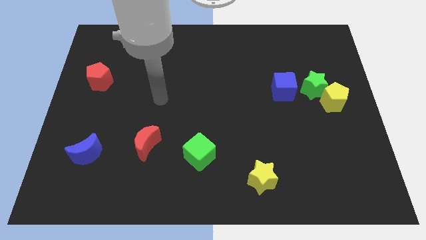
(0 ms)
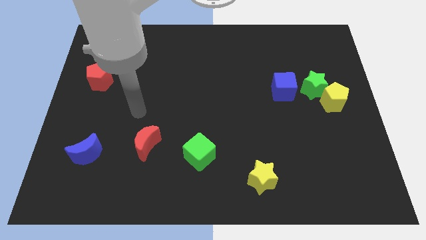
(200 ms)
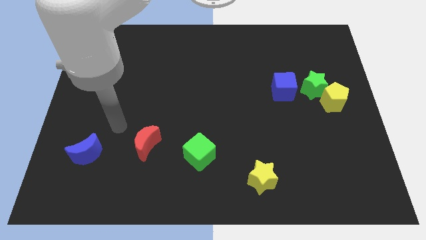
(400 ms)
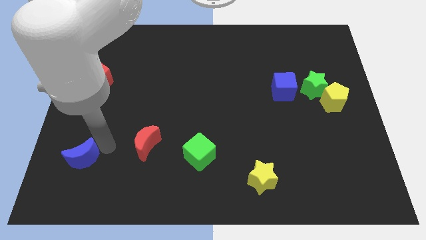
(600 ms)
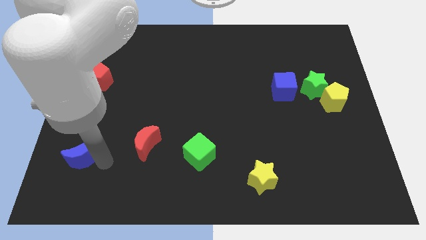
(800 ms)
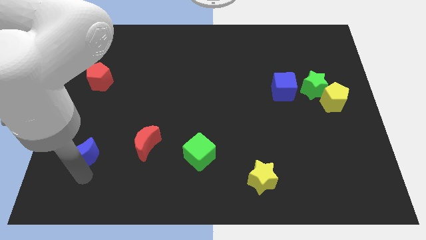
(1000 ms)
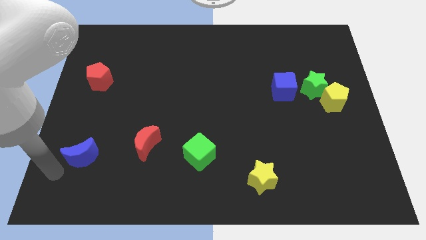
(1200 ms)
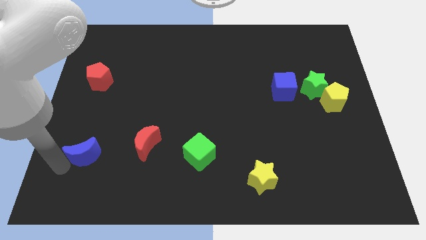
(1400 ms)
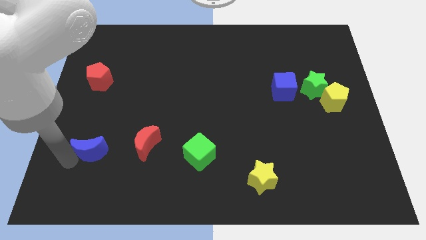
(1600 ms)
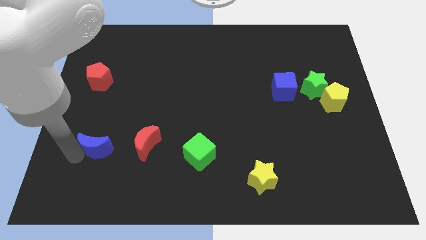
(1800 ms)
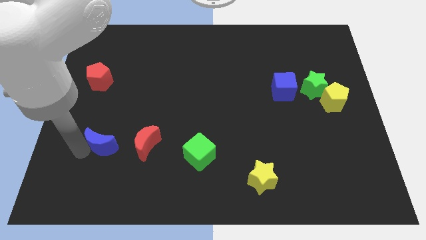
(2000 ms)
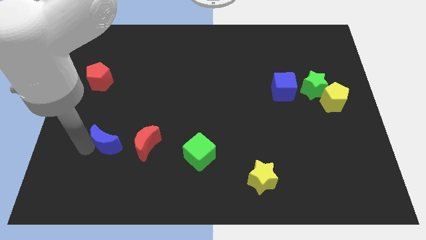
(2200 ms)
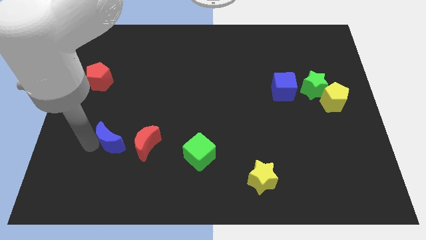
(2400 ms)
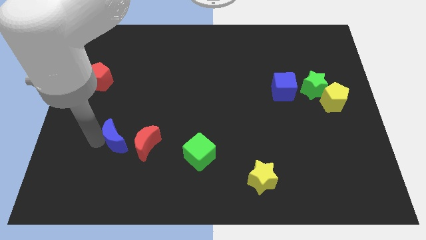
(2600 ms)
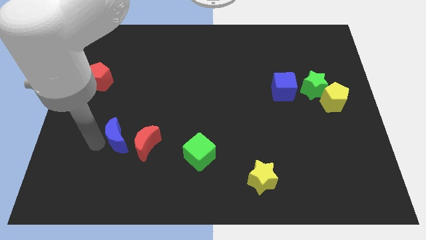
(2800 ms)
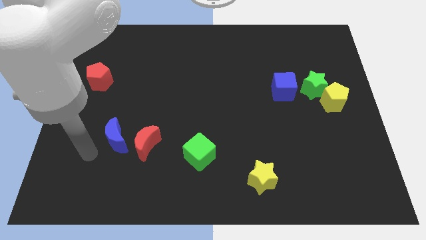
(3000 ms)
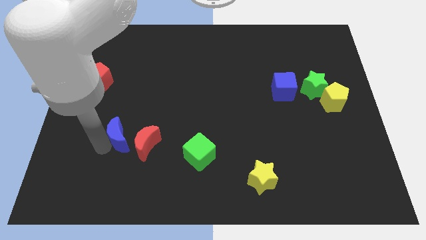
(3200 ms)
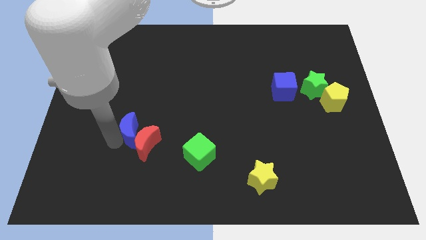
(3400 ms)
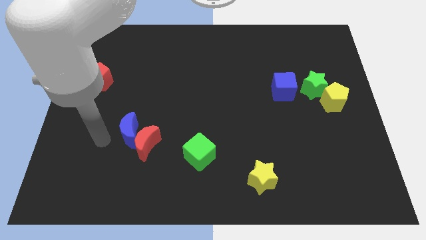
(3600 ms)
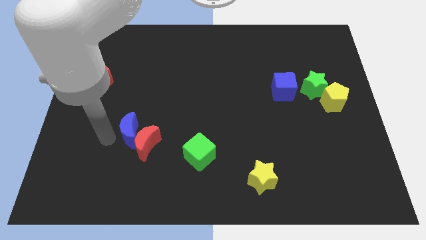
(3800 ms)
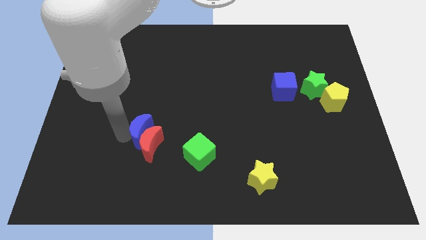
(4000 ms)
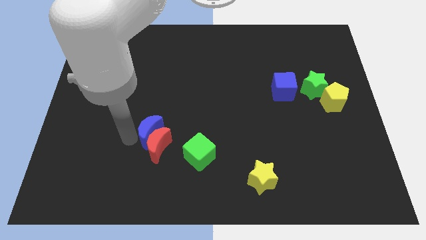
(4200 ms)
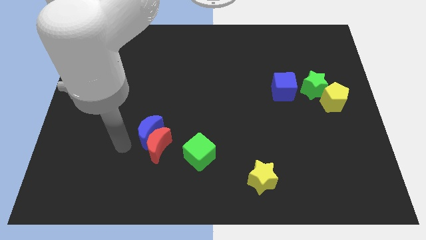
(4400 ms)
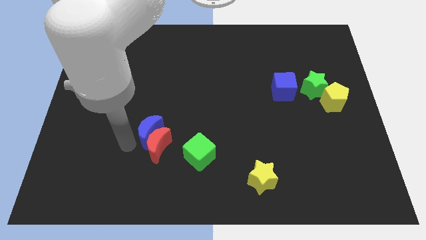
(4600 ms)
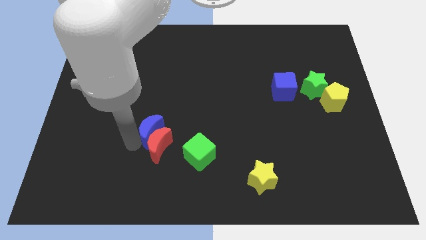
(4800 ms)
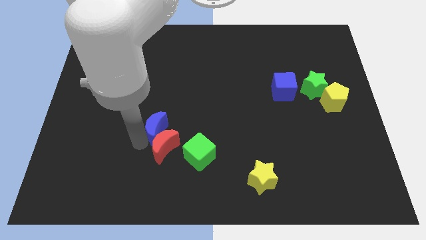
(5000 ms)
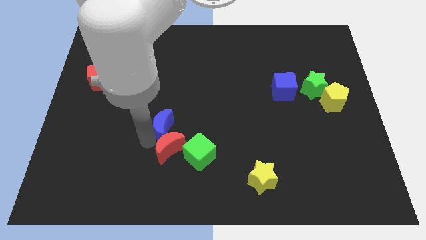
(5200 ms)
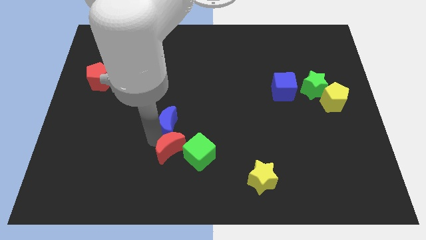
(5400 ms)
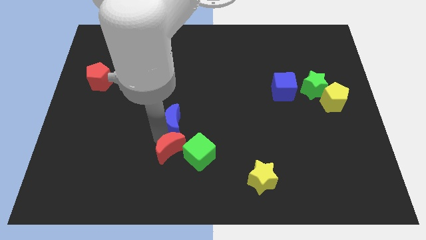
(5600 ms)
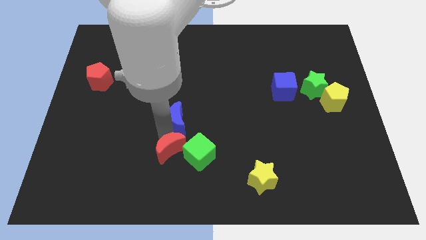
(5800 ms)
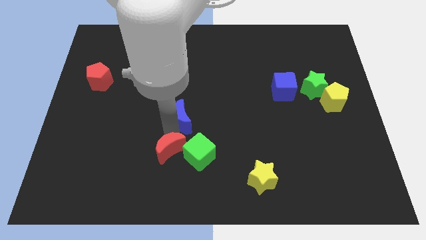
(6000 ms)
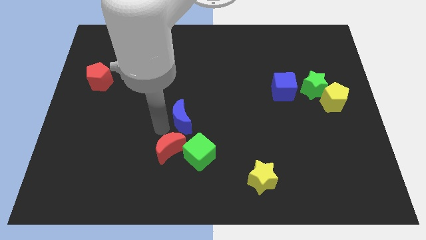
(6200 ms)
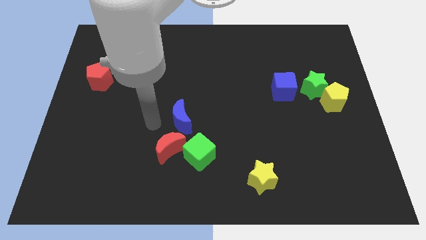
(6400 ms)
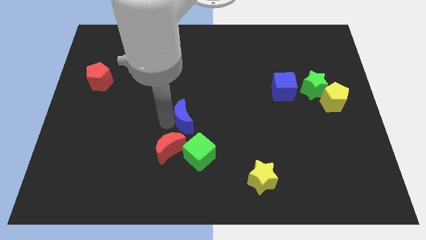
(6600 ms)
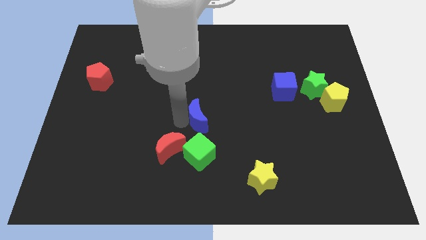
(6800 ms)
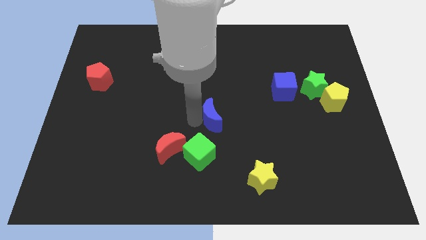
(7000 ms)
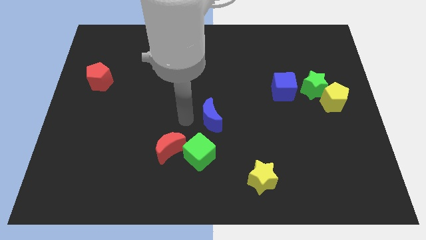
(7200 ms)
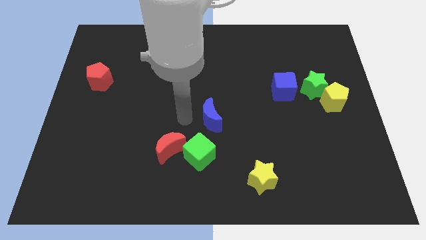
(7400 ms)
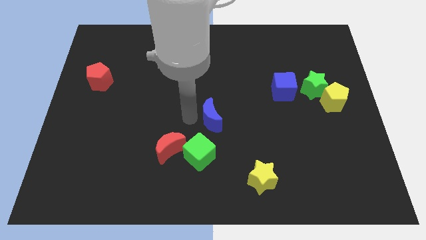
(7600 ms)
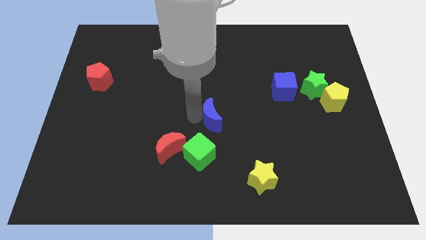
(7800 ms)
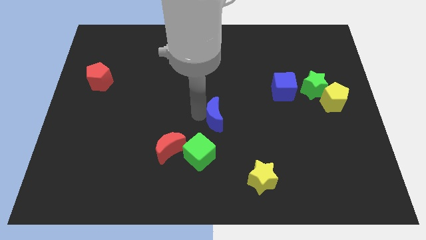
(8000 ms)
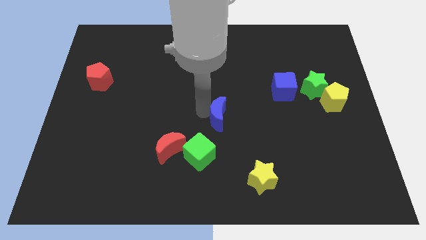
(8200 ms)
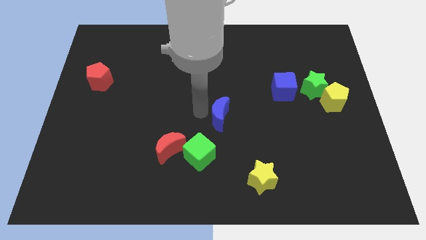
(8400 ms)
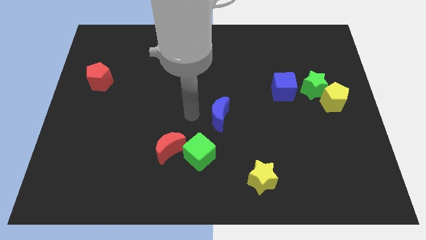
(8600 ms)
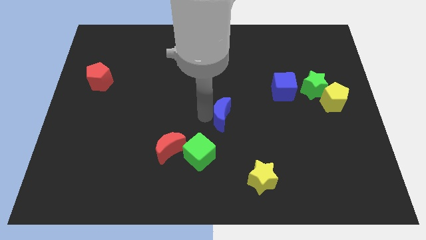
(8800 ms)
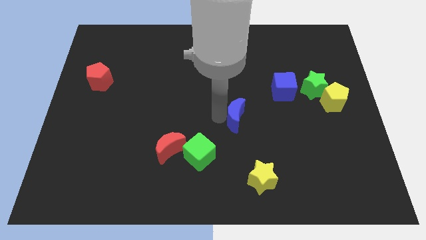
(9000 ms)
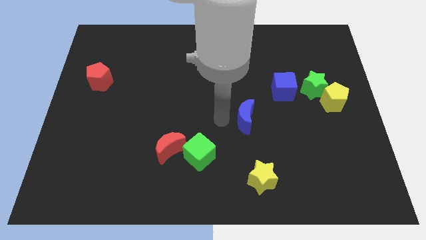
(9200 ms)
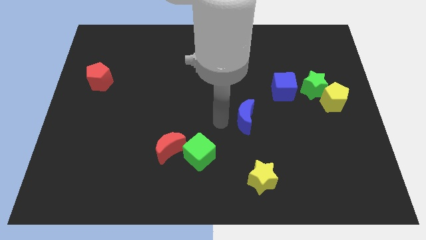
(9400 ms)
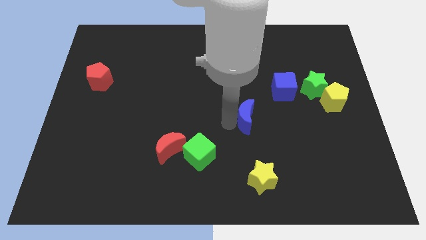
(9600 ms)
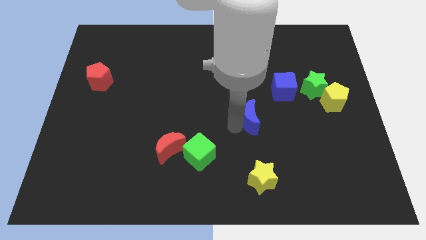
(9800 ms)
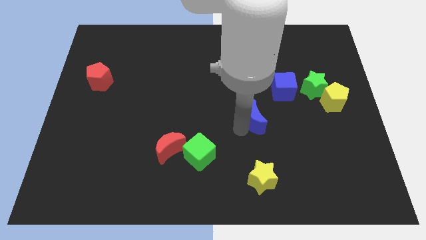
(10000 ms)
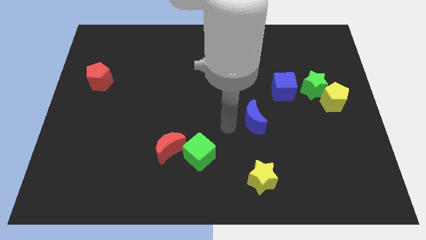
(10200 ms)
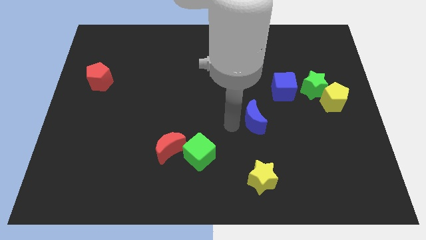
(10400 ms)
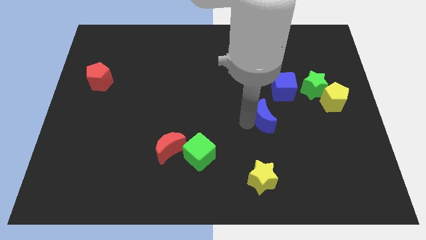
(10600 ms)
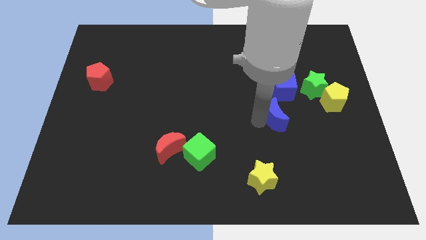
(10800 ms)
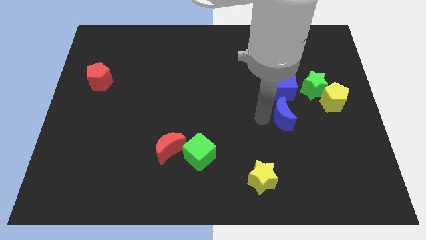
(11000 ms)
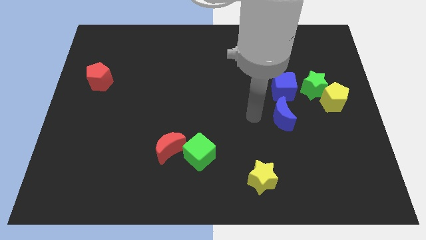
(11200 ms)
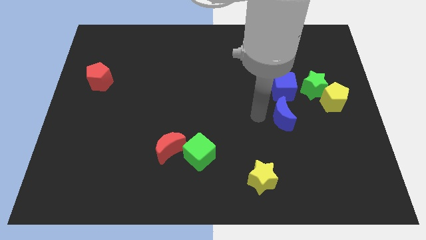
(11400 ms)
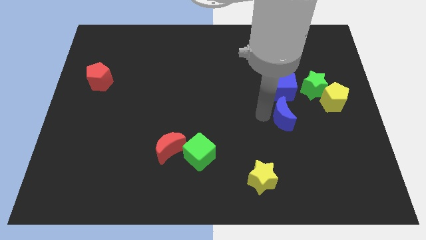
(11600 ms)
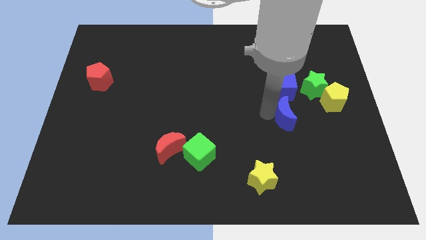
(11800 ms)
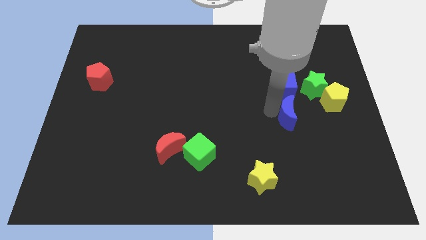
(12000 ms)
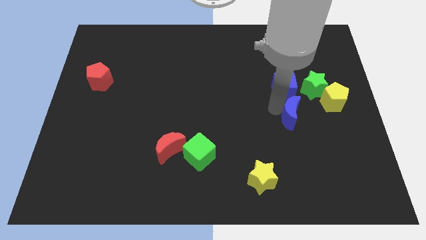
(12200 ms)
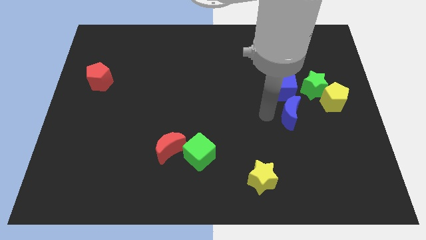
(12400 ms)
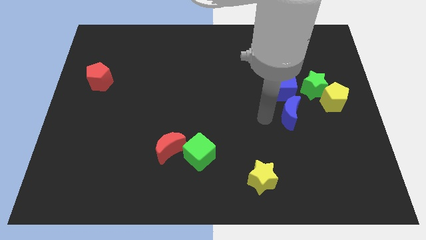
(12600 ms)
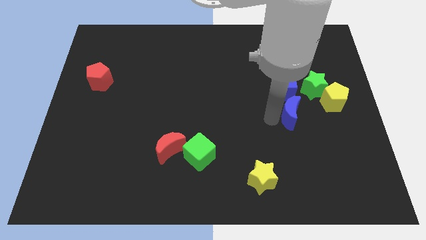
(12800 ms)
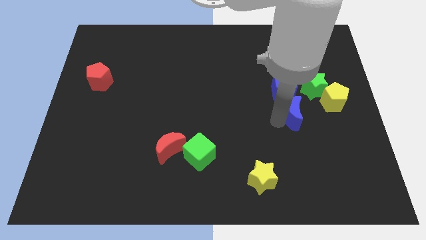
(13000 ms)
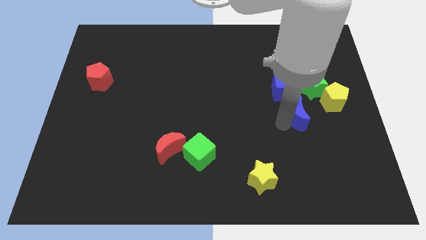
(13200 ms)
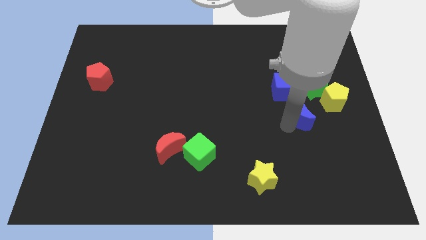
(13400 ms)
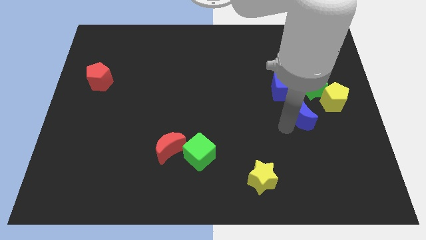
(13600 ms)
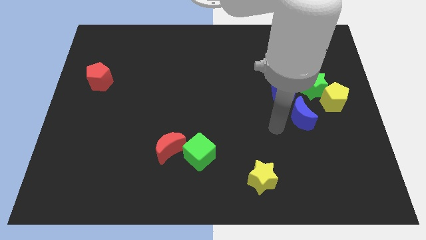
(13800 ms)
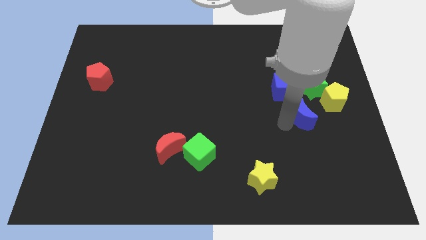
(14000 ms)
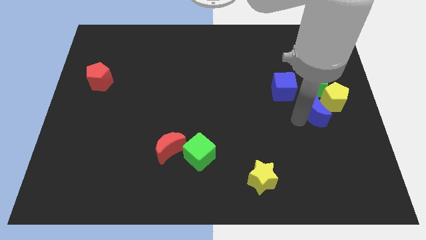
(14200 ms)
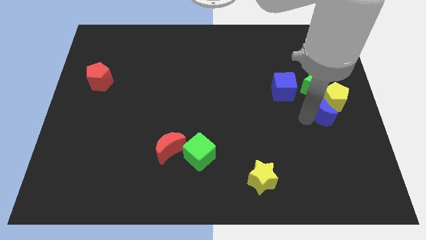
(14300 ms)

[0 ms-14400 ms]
push the blue moon towards the yellow pentagon
